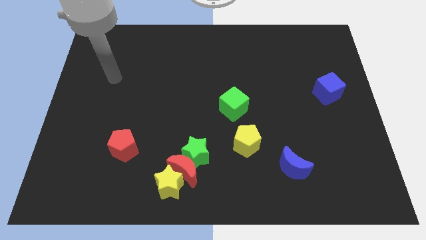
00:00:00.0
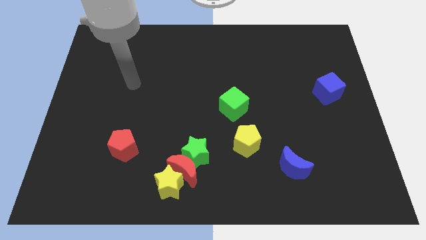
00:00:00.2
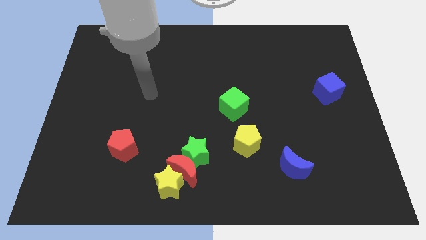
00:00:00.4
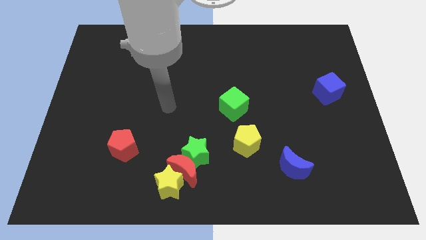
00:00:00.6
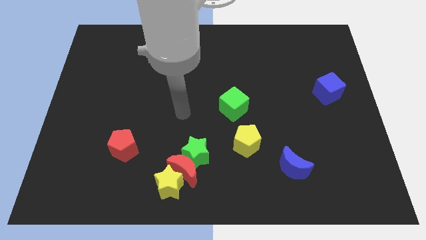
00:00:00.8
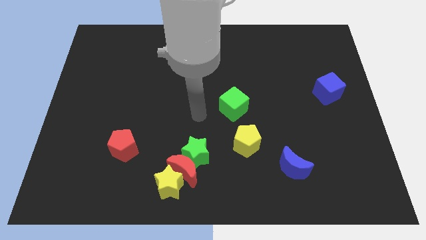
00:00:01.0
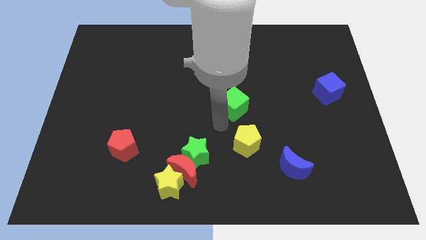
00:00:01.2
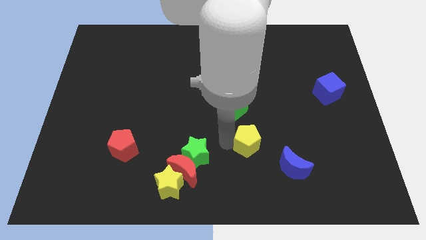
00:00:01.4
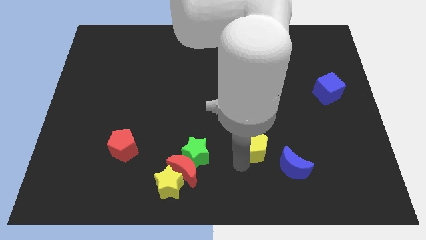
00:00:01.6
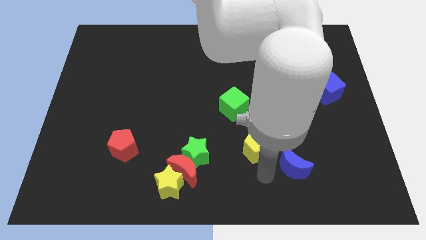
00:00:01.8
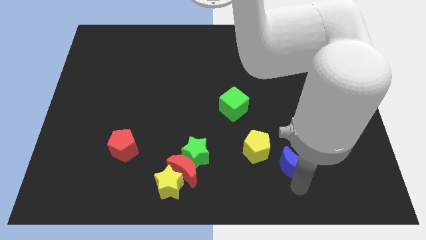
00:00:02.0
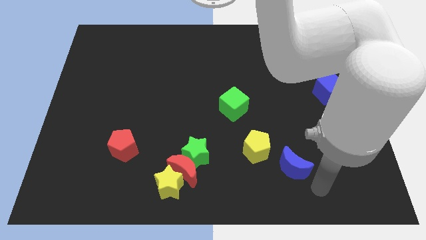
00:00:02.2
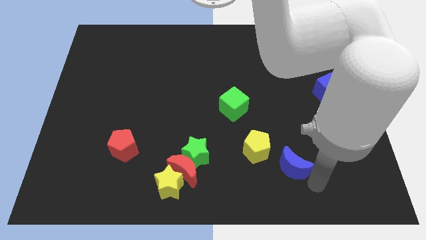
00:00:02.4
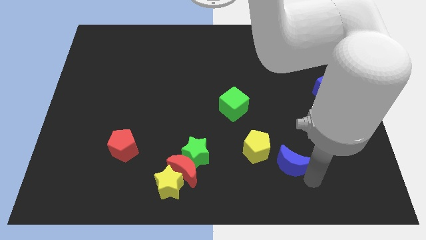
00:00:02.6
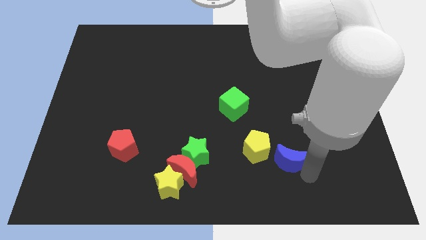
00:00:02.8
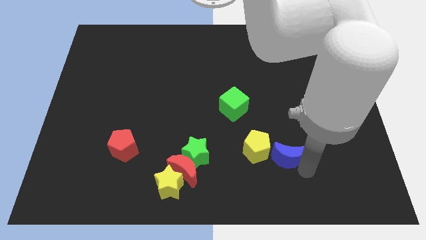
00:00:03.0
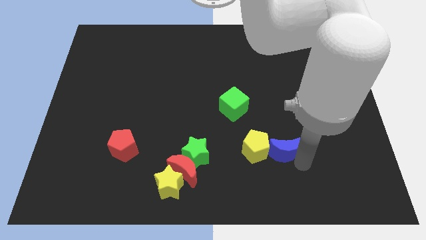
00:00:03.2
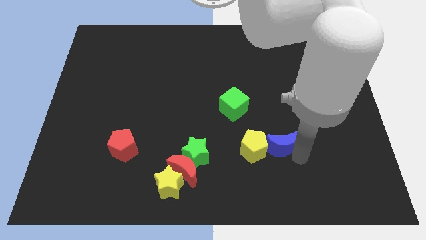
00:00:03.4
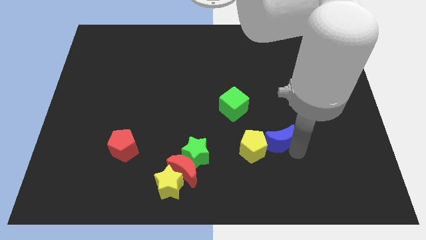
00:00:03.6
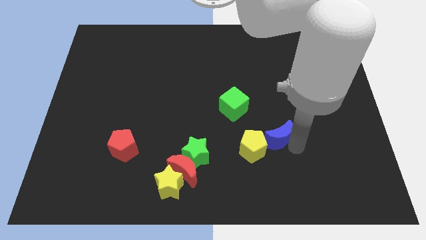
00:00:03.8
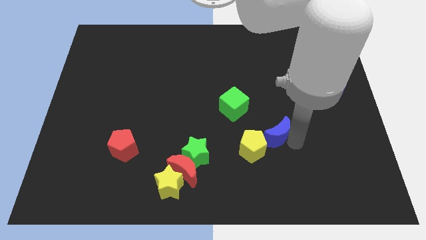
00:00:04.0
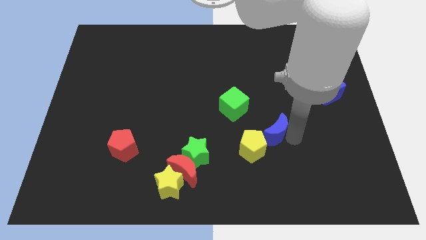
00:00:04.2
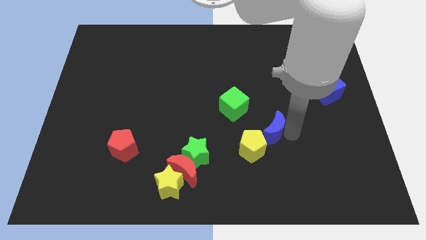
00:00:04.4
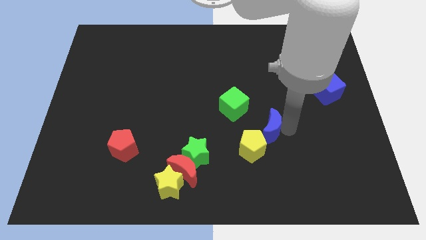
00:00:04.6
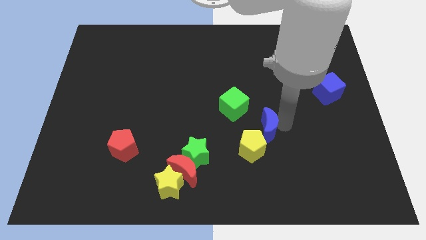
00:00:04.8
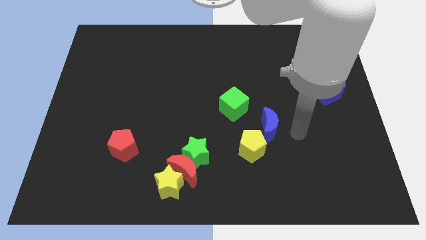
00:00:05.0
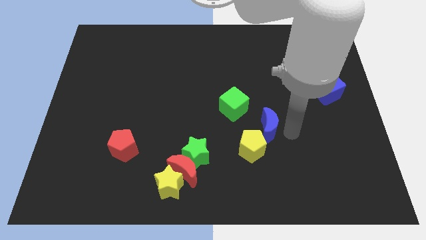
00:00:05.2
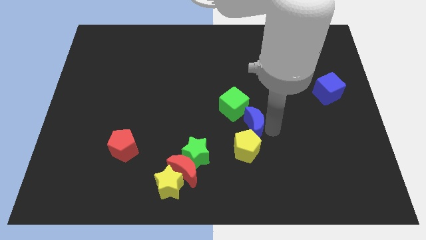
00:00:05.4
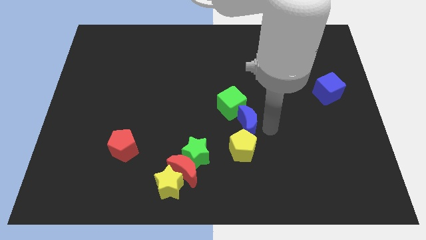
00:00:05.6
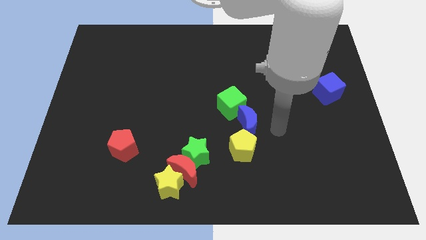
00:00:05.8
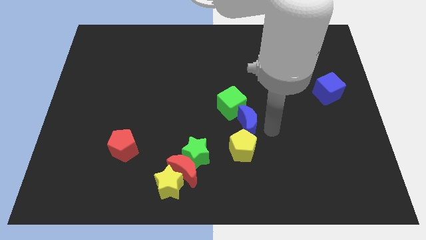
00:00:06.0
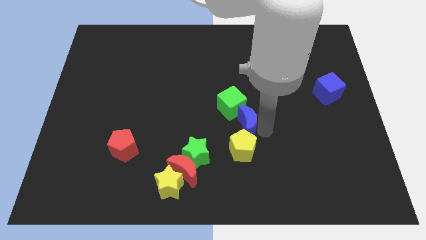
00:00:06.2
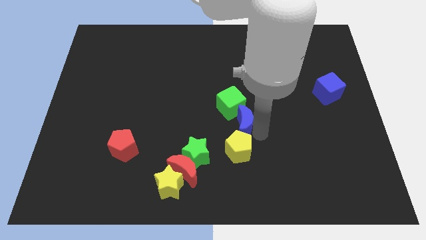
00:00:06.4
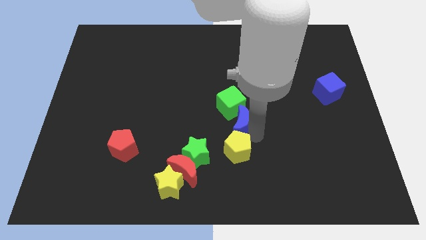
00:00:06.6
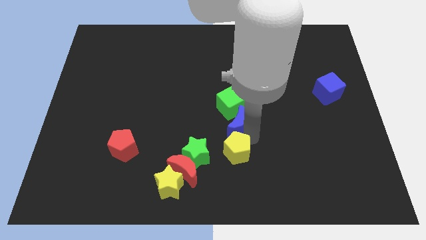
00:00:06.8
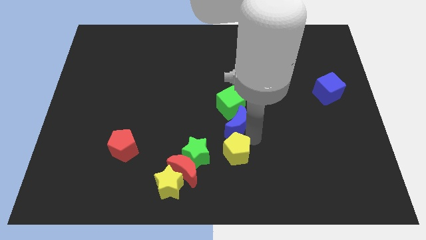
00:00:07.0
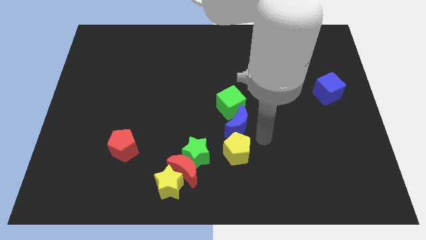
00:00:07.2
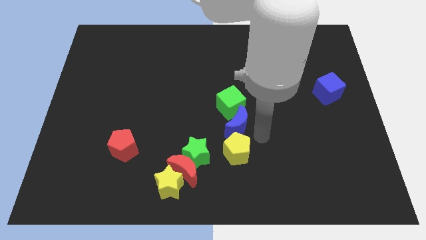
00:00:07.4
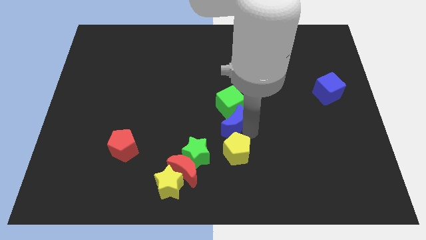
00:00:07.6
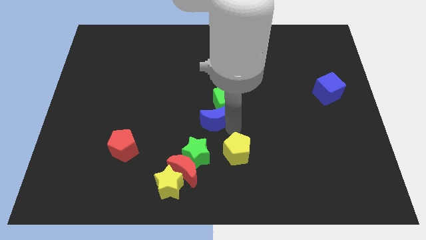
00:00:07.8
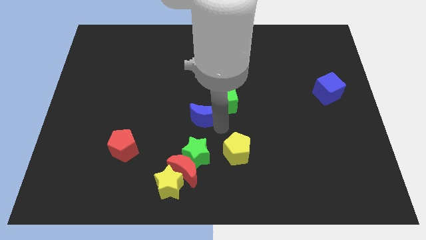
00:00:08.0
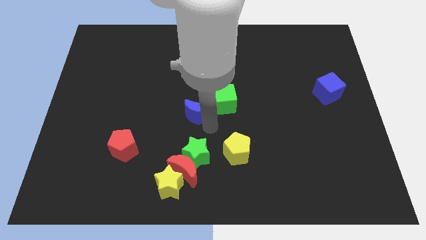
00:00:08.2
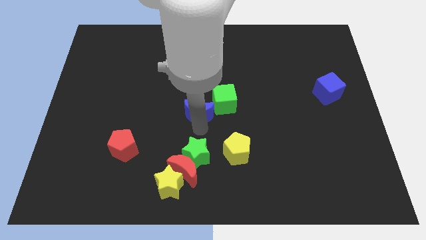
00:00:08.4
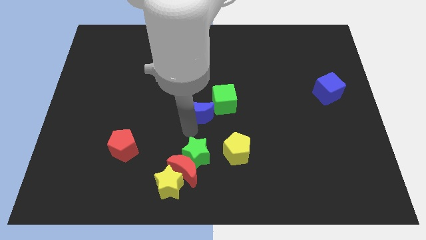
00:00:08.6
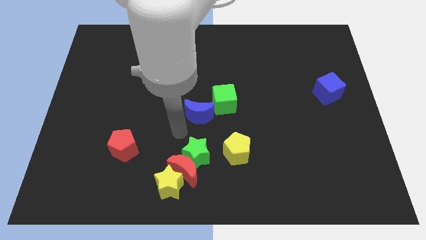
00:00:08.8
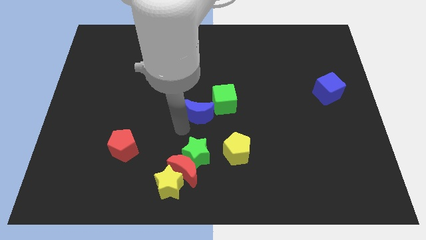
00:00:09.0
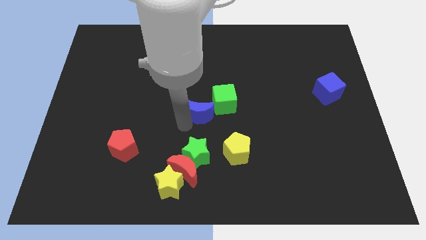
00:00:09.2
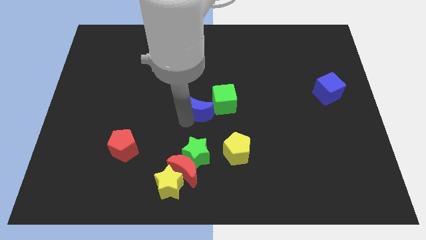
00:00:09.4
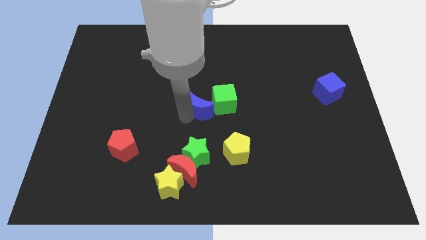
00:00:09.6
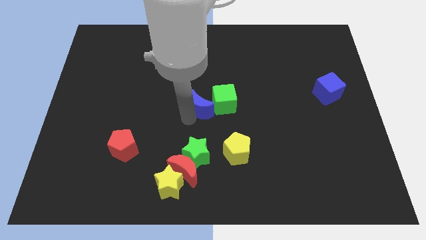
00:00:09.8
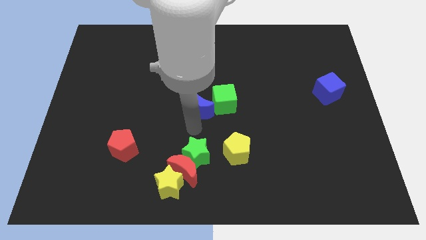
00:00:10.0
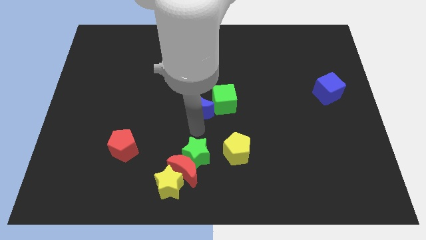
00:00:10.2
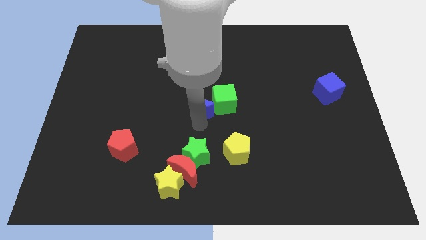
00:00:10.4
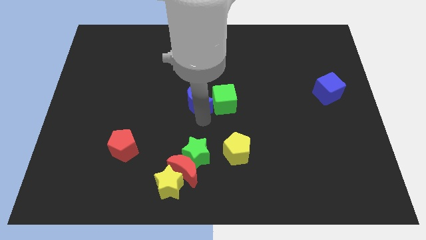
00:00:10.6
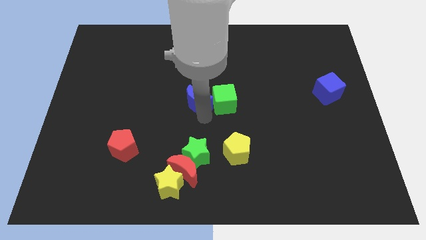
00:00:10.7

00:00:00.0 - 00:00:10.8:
move the blue moon to the top left side of the green cube

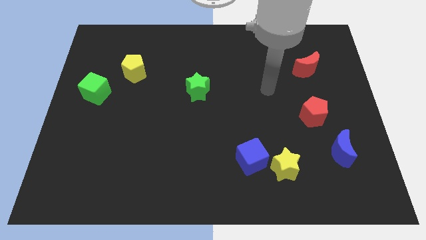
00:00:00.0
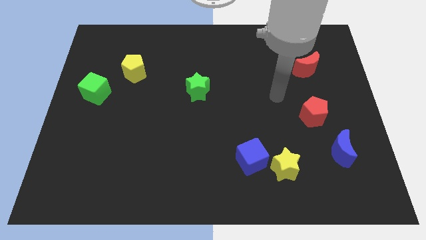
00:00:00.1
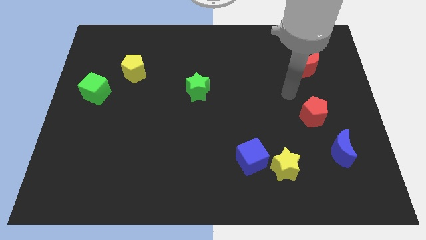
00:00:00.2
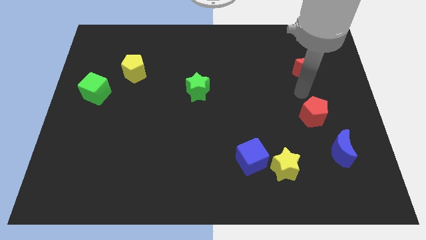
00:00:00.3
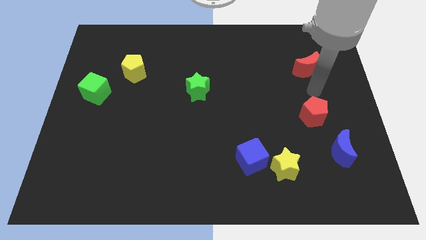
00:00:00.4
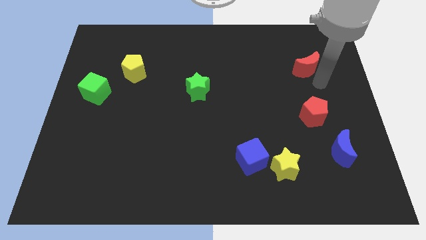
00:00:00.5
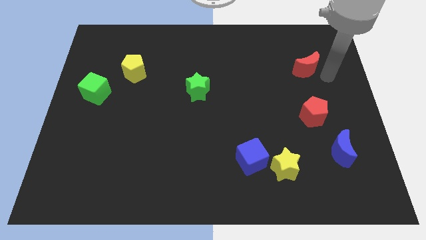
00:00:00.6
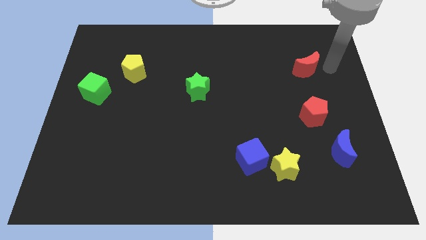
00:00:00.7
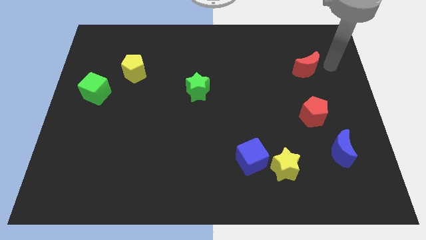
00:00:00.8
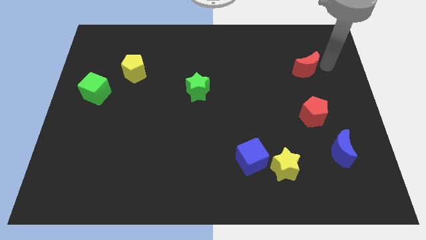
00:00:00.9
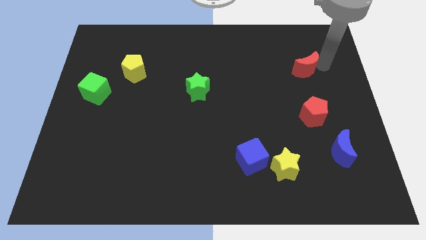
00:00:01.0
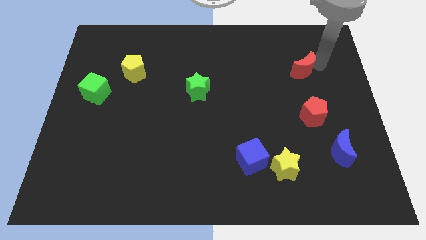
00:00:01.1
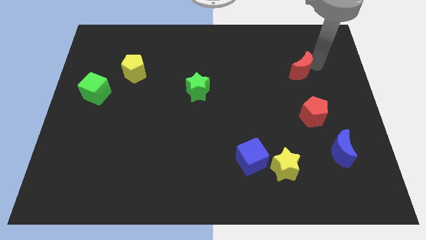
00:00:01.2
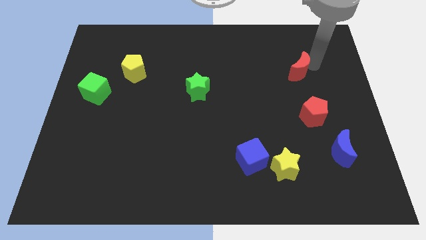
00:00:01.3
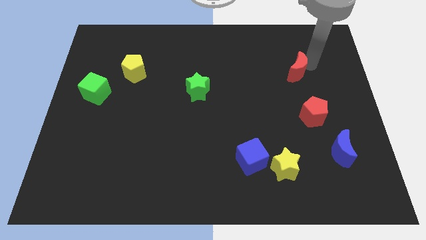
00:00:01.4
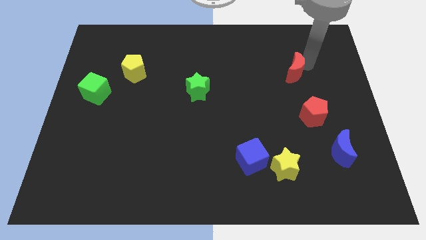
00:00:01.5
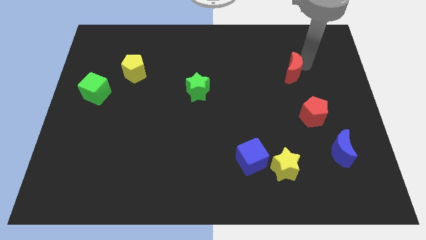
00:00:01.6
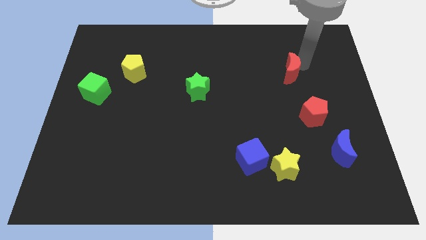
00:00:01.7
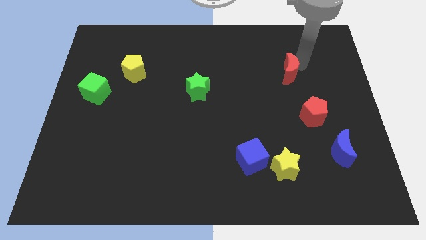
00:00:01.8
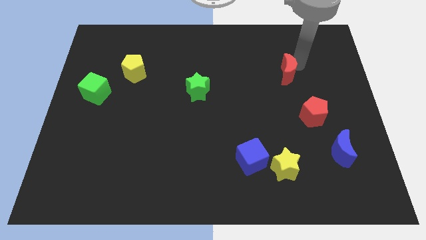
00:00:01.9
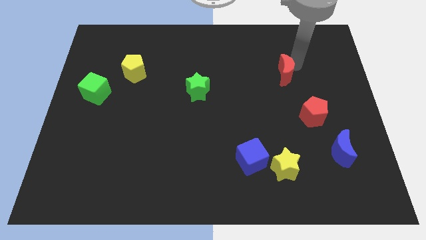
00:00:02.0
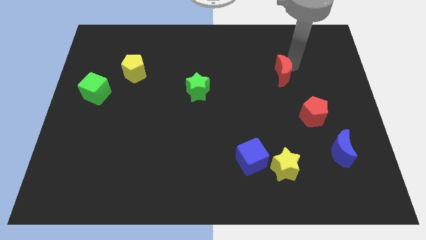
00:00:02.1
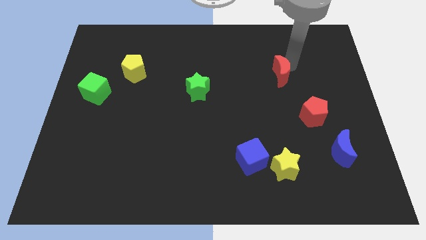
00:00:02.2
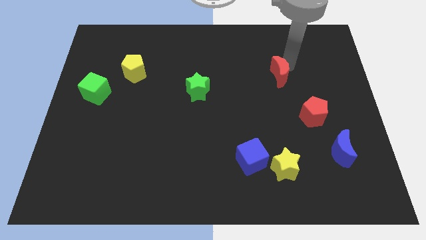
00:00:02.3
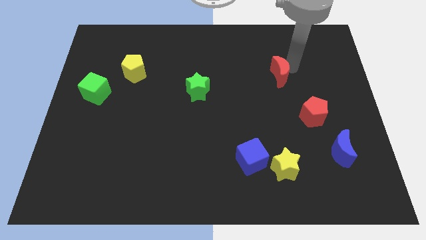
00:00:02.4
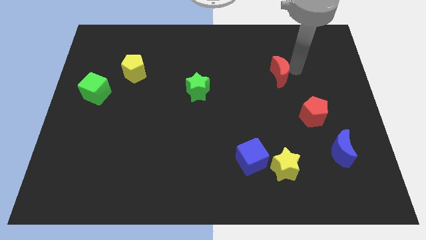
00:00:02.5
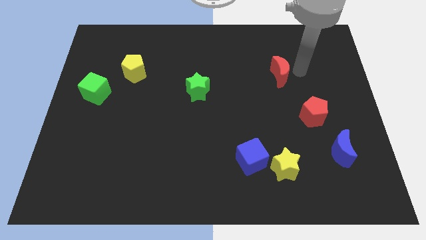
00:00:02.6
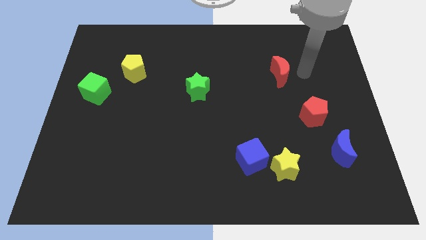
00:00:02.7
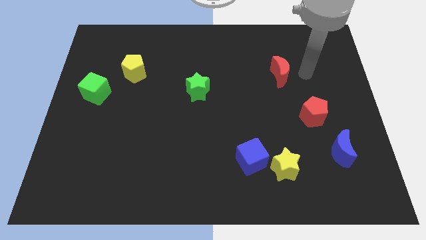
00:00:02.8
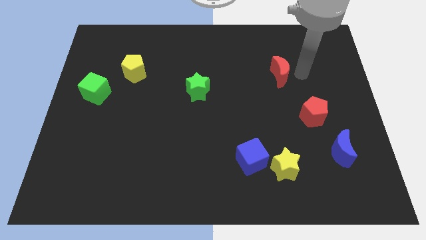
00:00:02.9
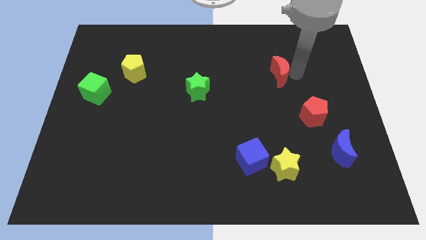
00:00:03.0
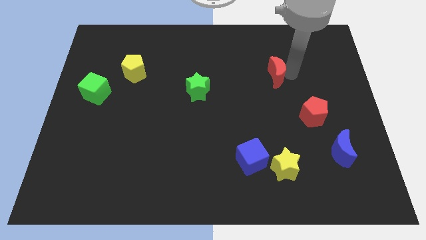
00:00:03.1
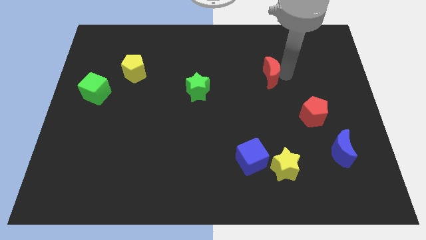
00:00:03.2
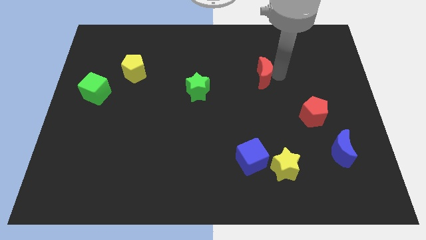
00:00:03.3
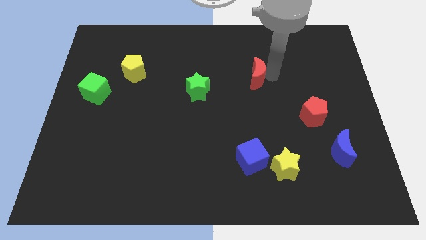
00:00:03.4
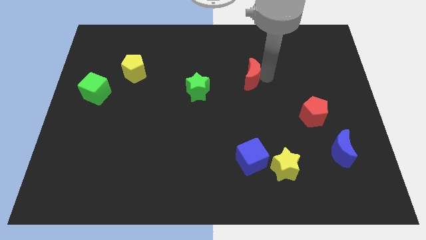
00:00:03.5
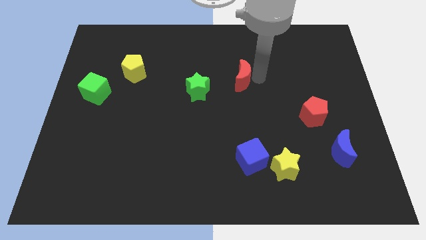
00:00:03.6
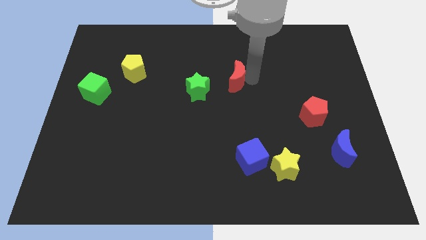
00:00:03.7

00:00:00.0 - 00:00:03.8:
push the red moon to the top right of the green star
